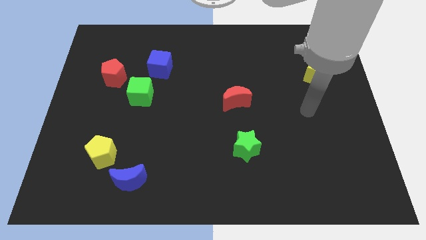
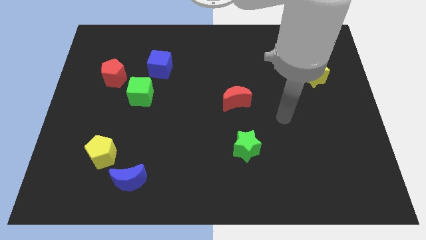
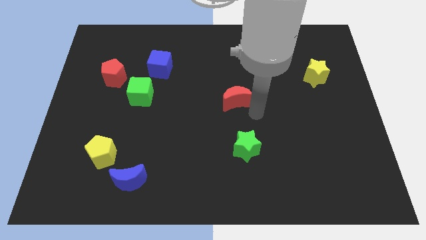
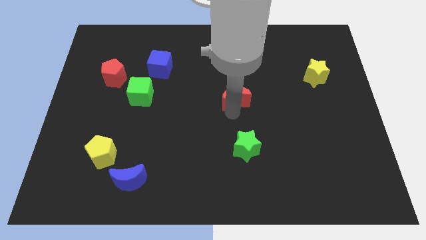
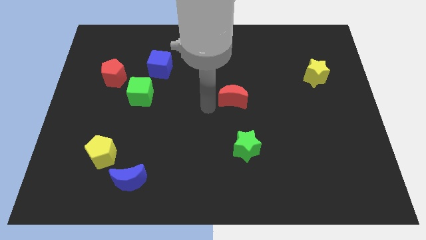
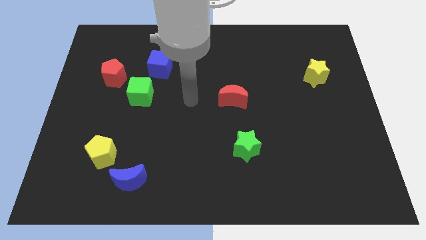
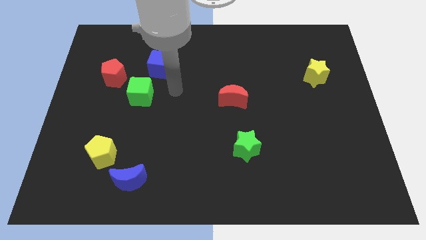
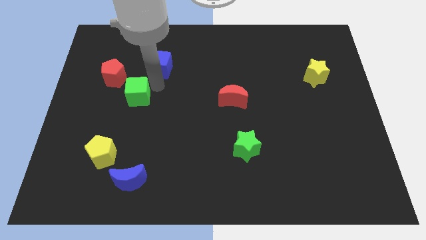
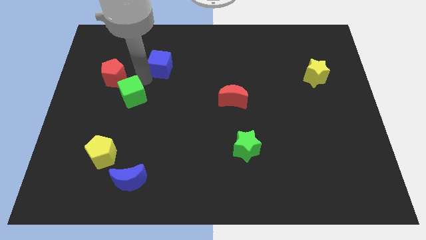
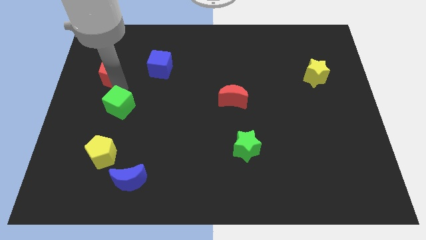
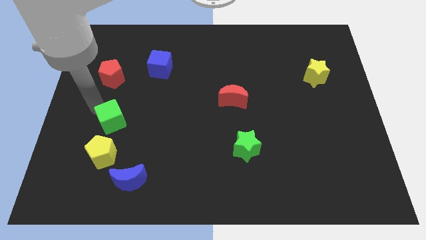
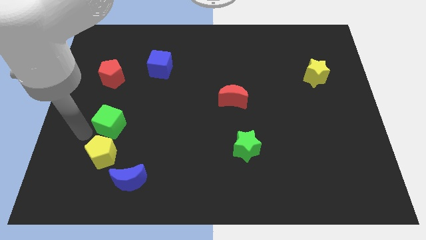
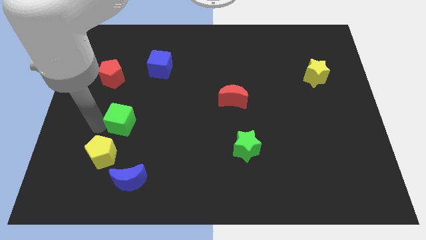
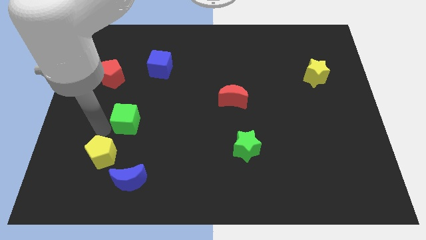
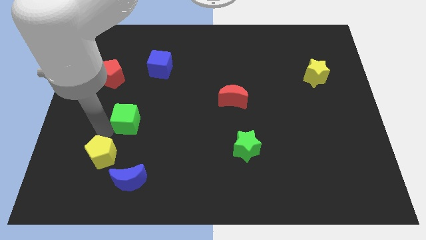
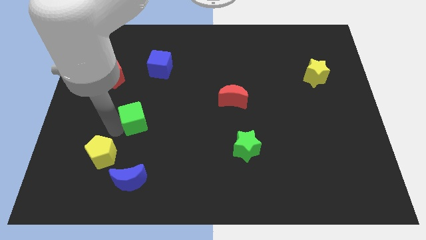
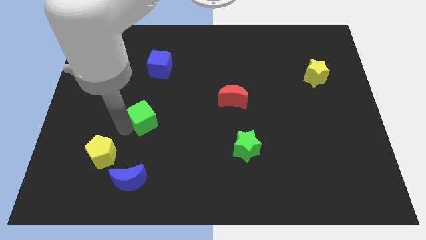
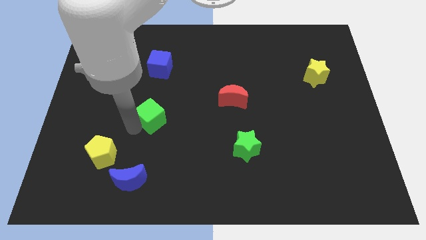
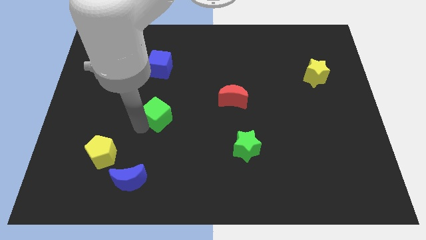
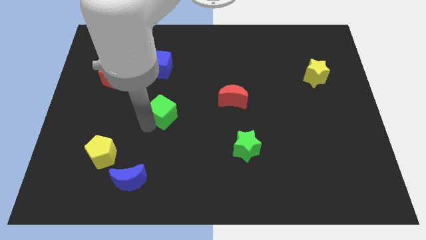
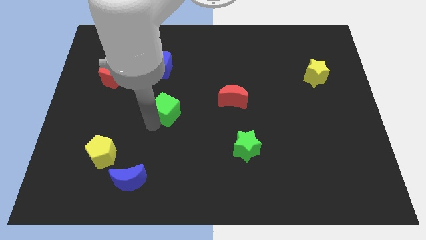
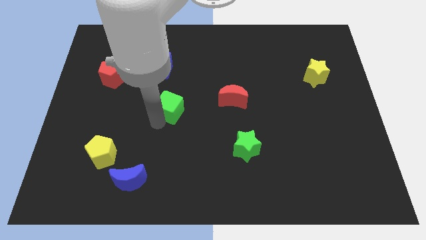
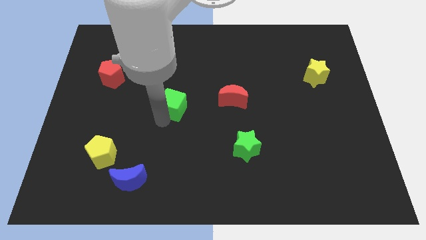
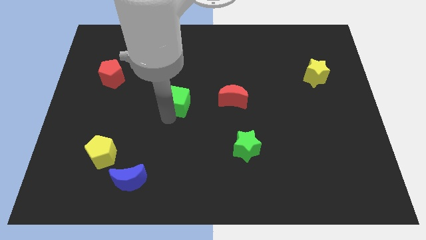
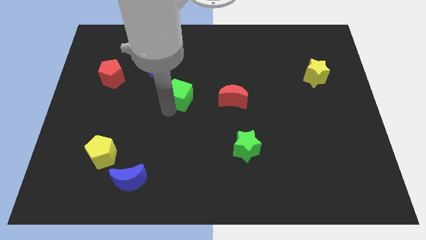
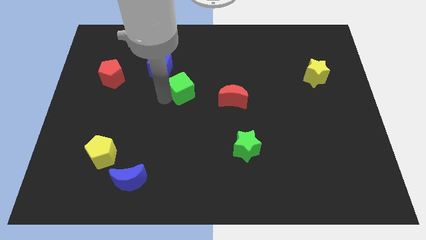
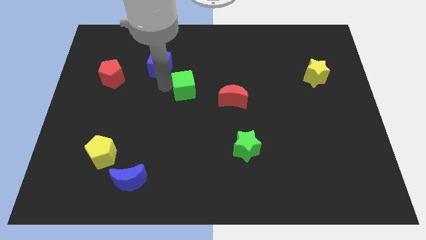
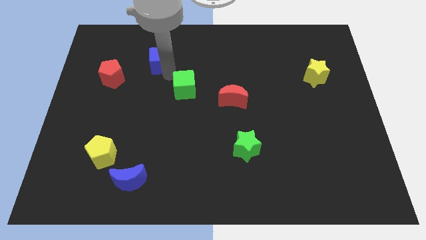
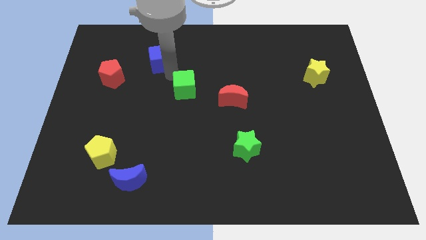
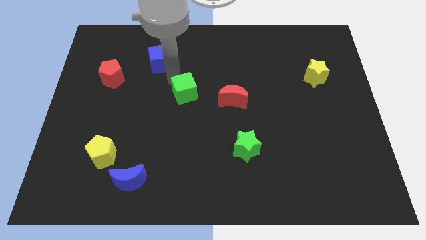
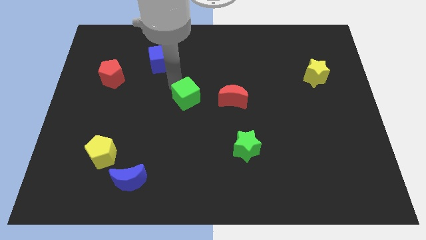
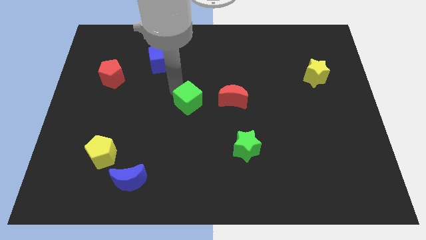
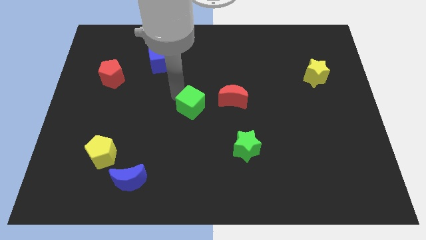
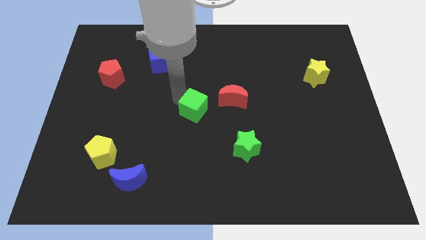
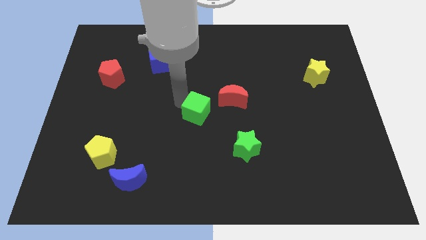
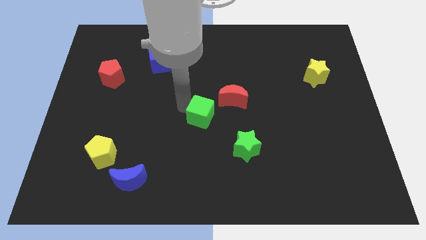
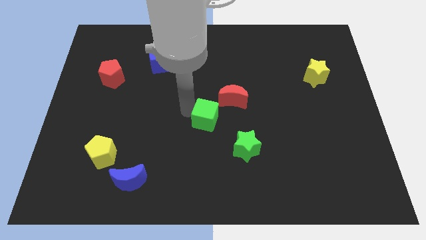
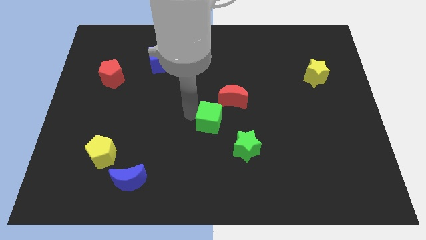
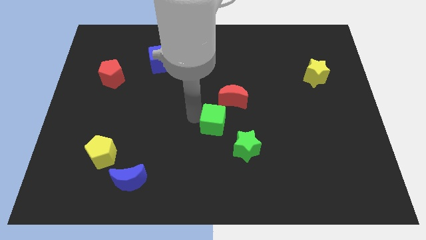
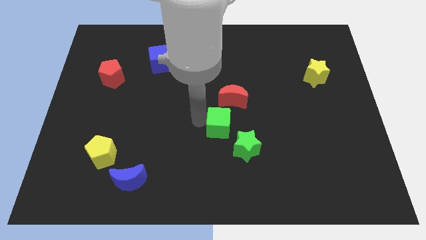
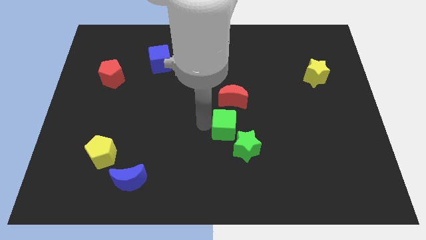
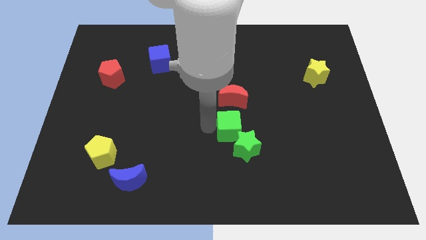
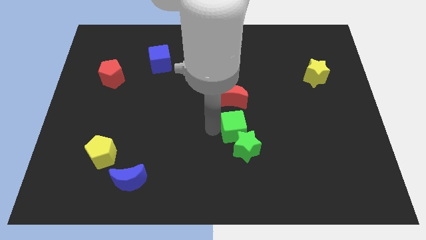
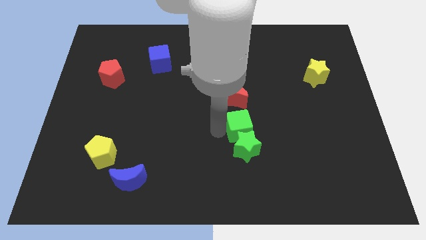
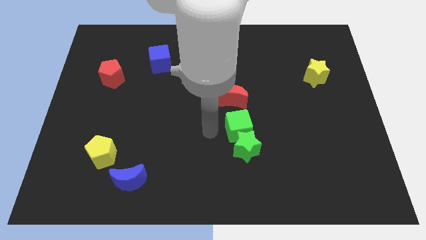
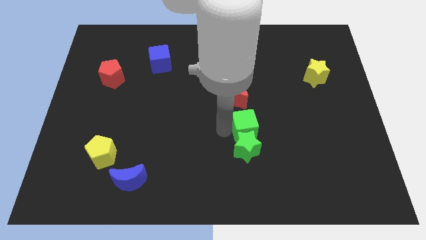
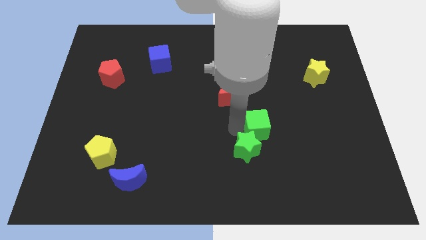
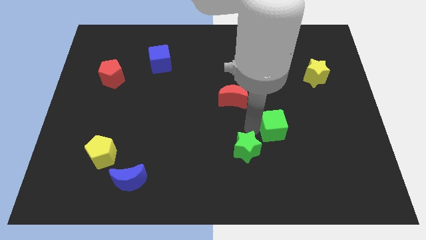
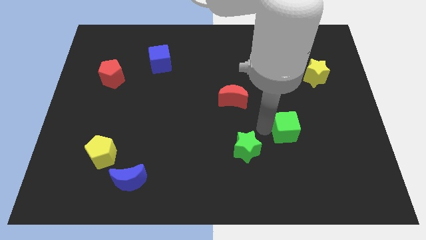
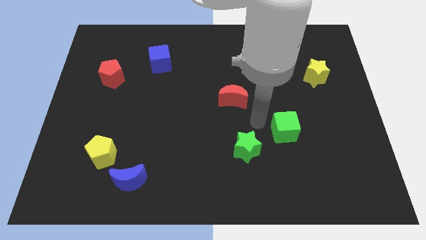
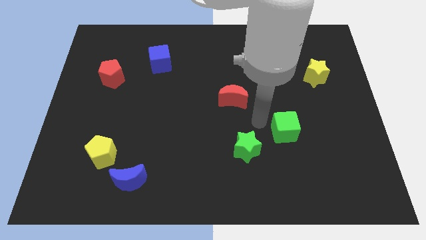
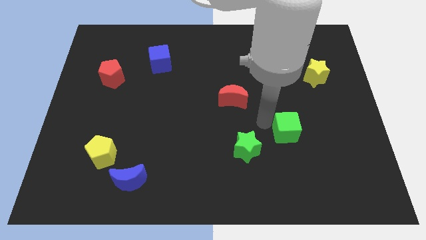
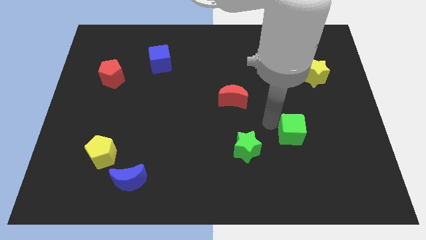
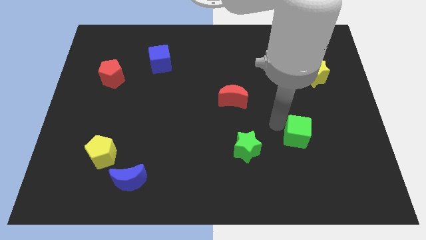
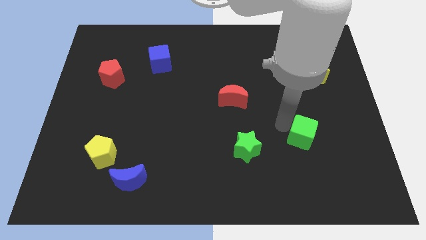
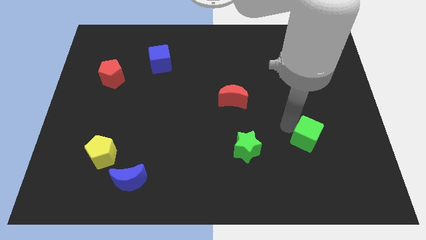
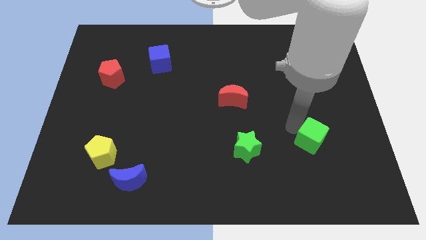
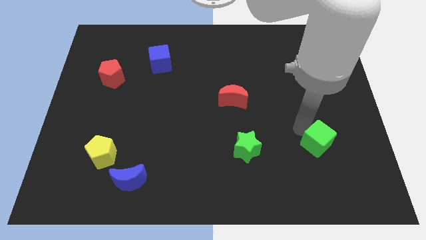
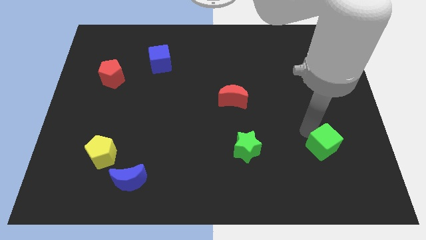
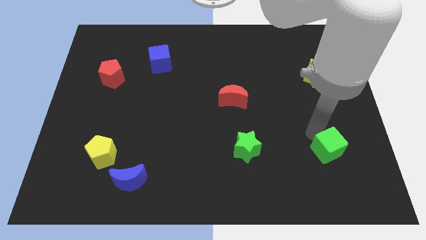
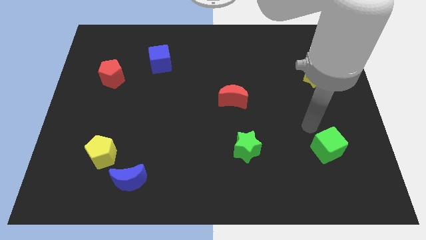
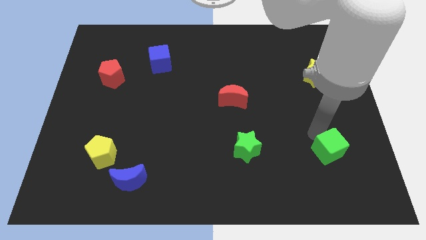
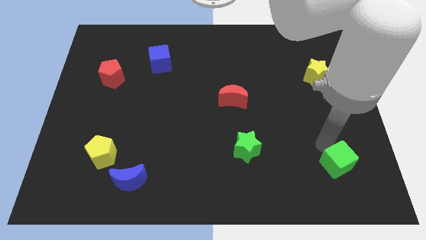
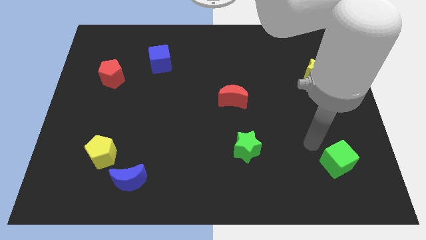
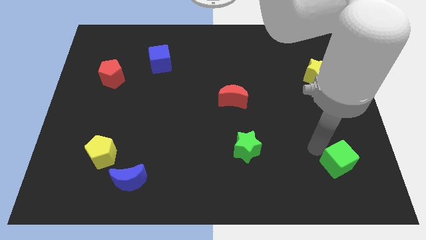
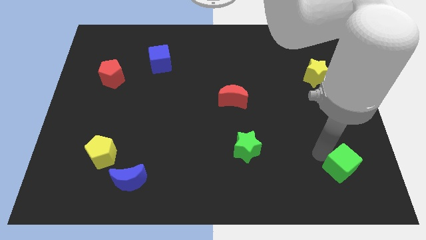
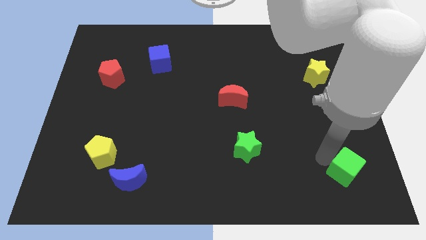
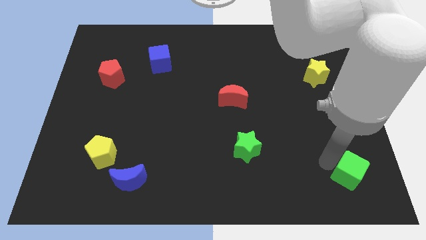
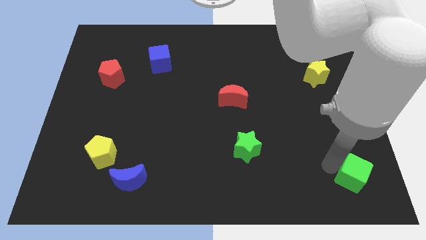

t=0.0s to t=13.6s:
put the green cube to the bottom right

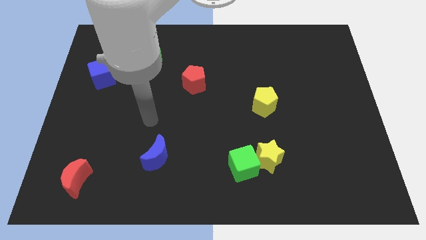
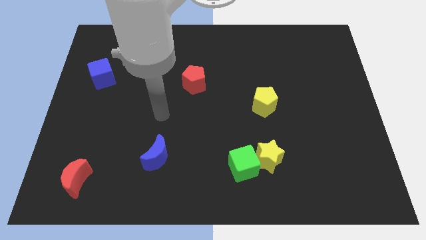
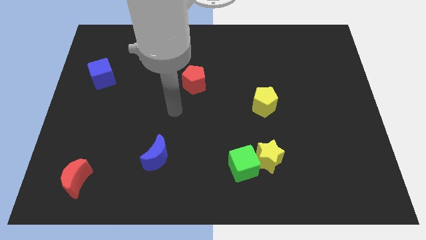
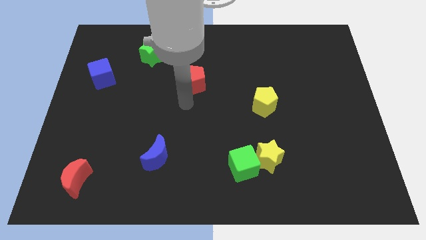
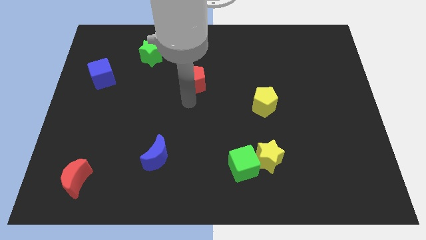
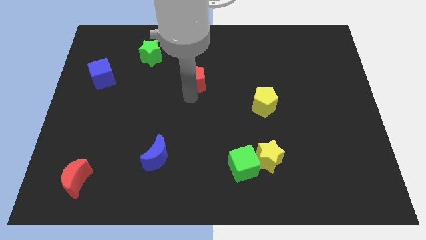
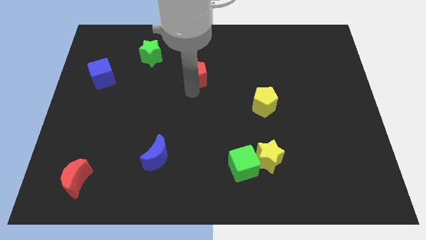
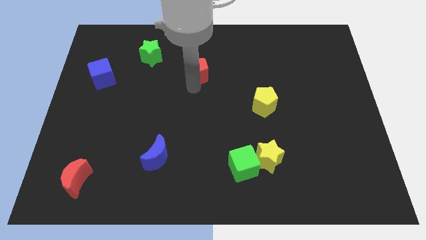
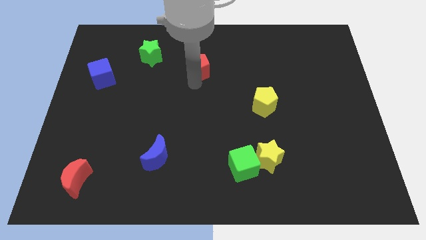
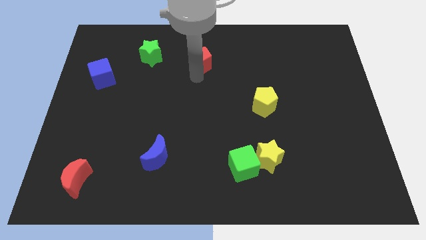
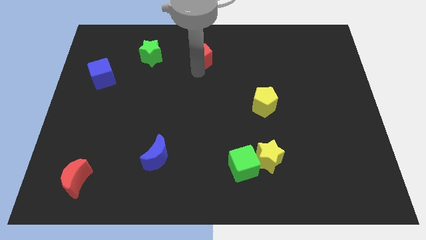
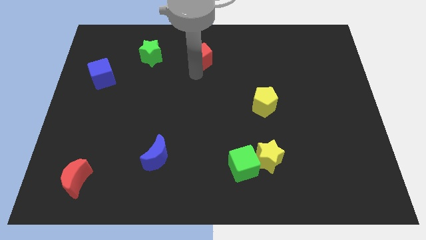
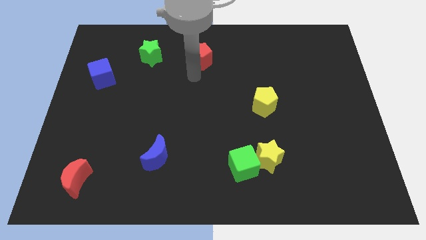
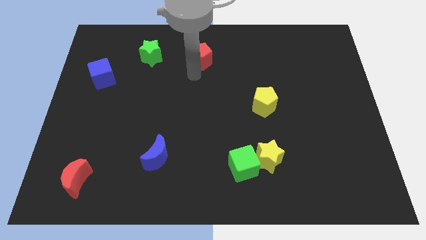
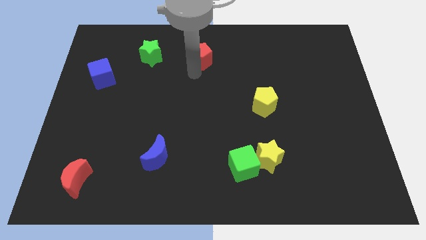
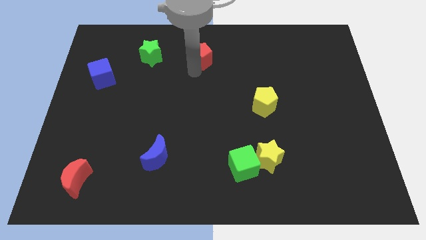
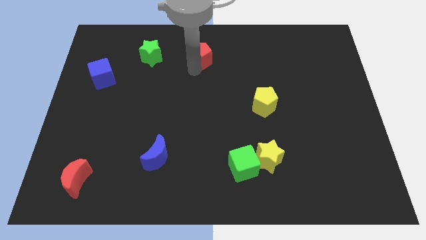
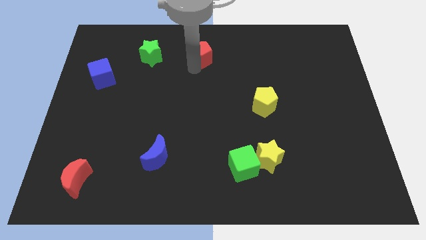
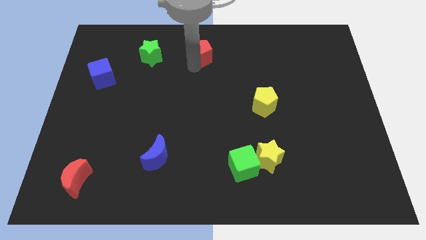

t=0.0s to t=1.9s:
move the red pentagon to the top
